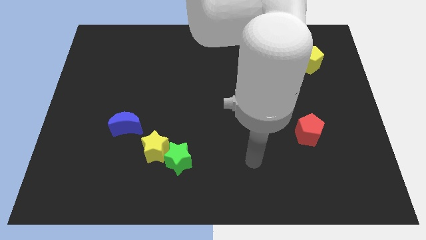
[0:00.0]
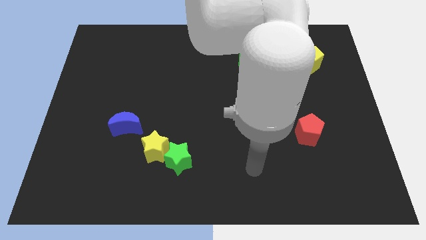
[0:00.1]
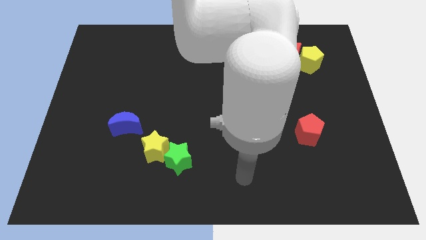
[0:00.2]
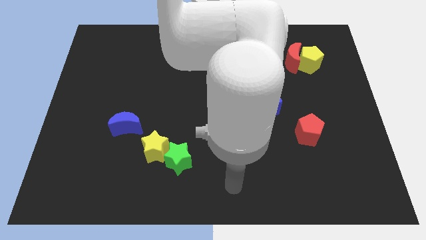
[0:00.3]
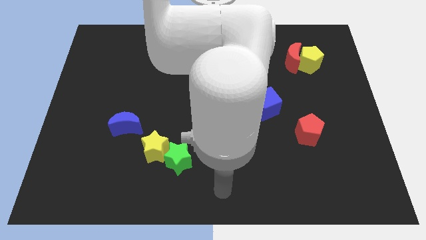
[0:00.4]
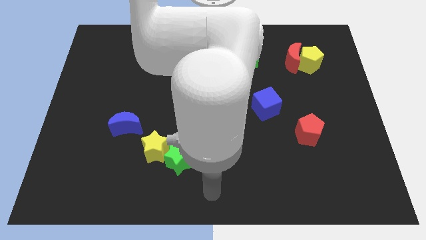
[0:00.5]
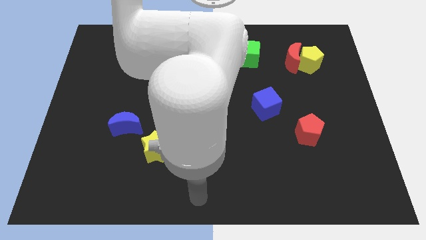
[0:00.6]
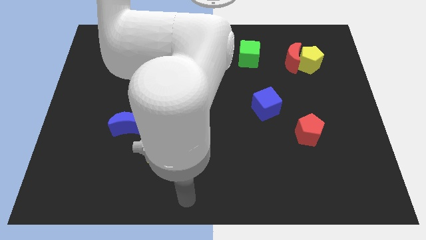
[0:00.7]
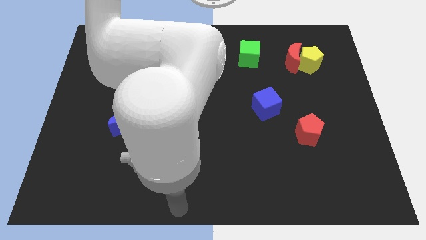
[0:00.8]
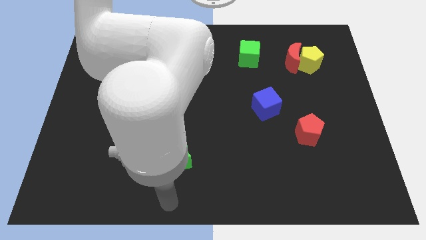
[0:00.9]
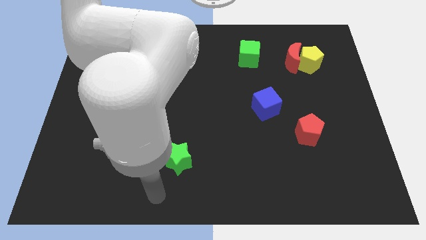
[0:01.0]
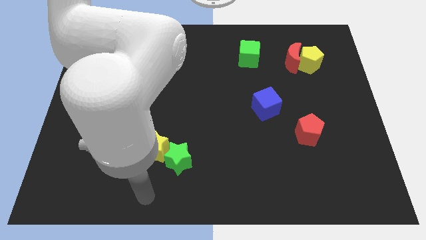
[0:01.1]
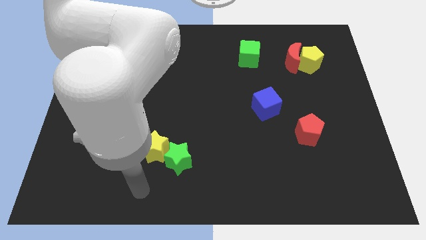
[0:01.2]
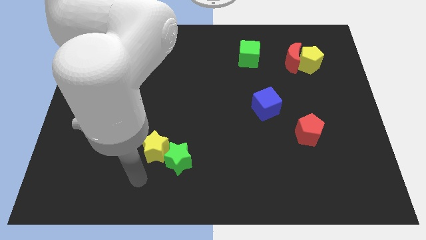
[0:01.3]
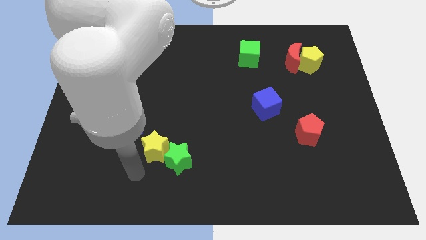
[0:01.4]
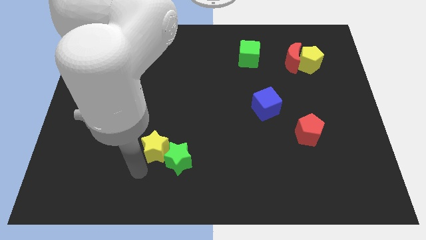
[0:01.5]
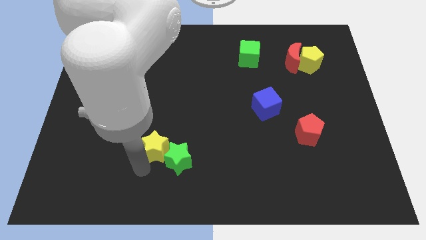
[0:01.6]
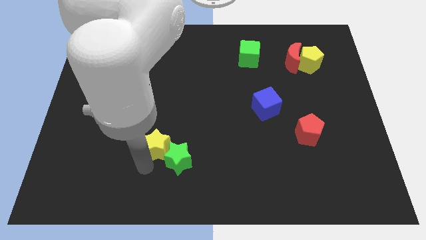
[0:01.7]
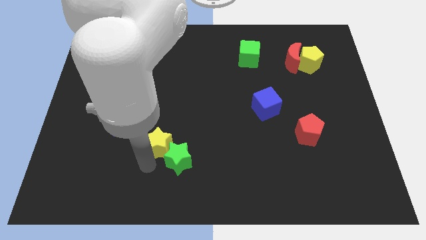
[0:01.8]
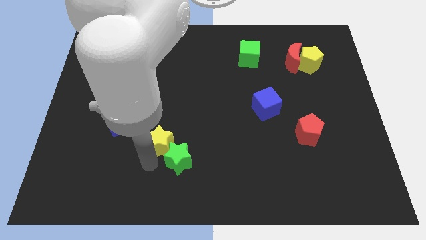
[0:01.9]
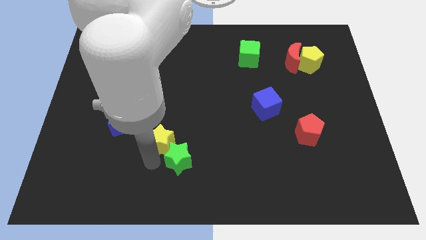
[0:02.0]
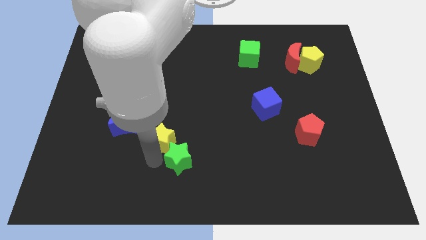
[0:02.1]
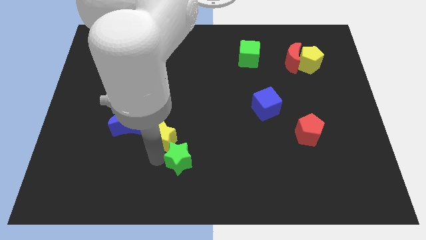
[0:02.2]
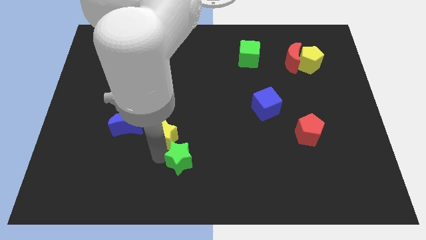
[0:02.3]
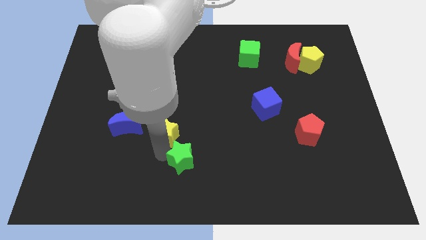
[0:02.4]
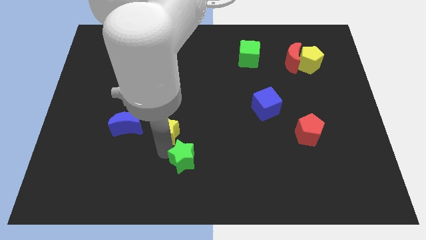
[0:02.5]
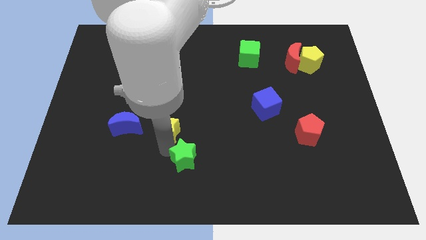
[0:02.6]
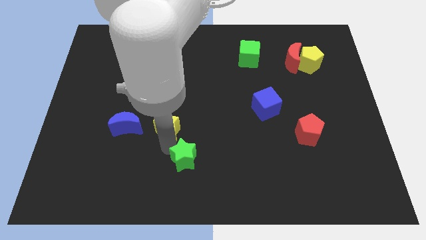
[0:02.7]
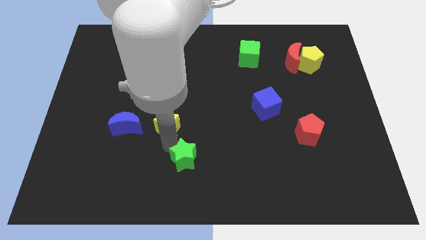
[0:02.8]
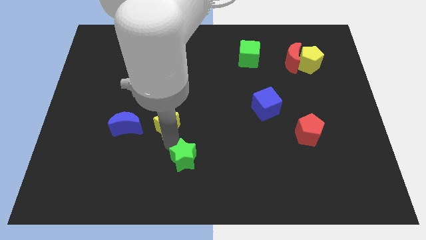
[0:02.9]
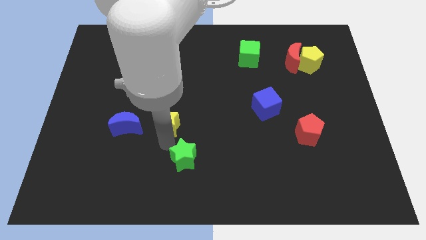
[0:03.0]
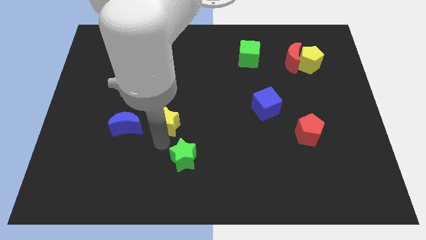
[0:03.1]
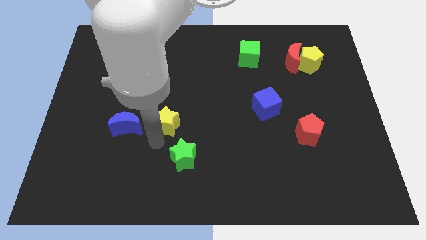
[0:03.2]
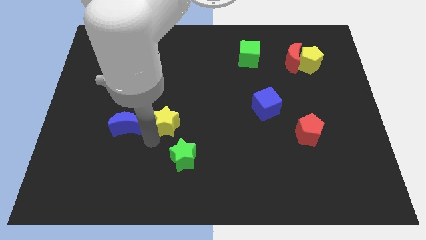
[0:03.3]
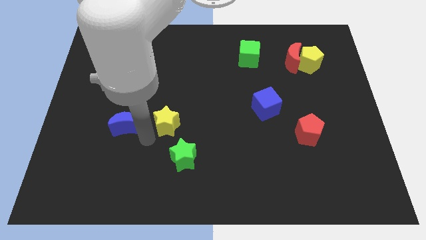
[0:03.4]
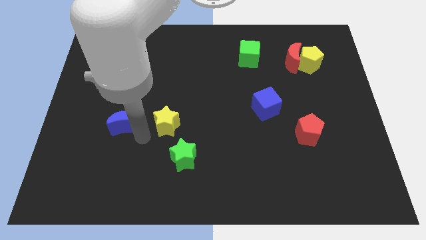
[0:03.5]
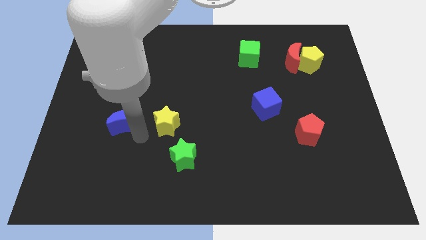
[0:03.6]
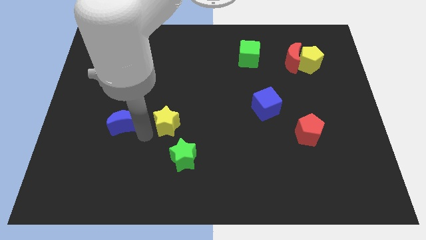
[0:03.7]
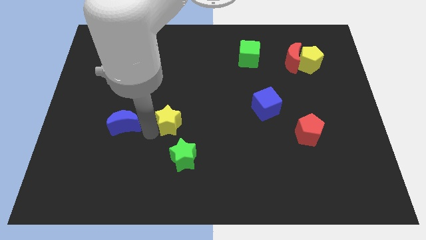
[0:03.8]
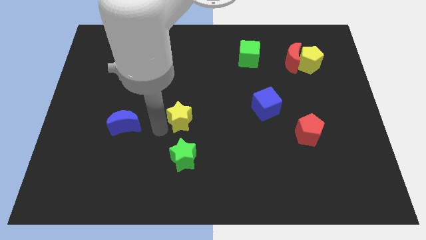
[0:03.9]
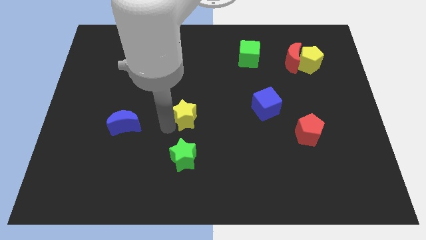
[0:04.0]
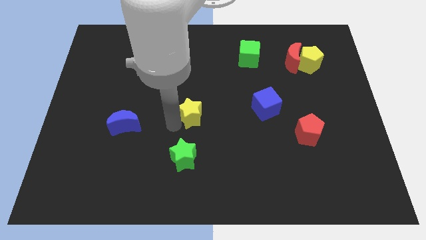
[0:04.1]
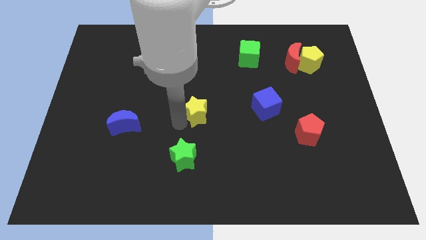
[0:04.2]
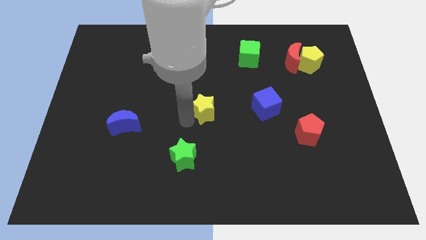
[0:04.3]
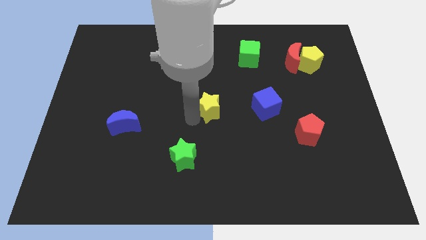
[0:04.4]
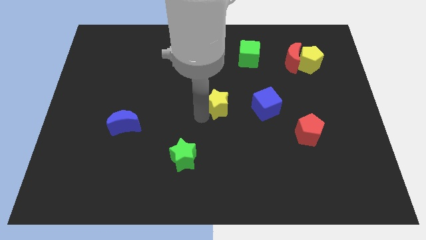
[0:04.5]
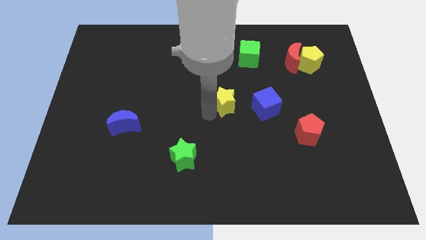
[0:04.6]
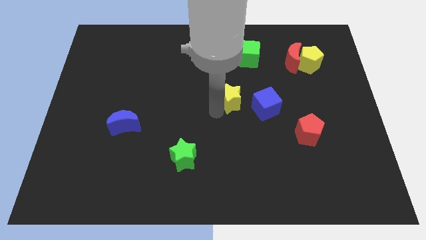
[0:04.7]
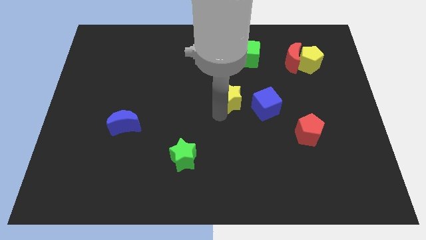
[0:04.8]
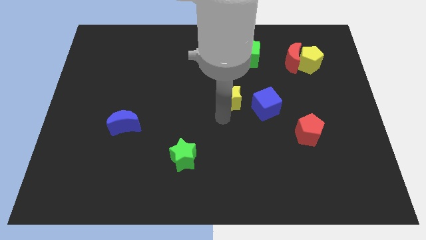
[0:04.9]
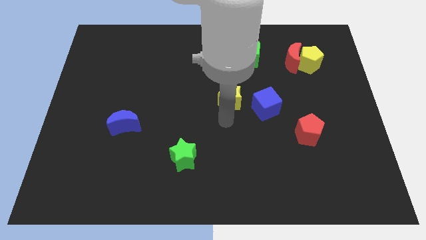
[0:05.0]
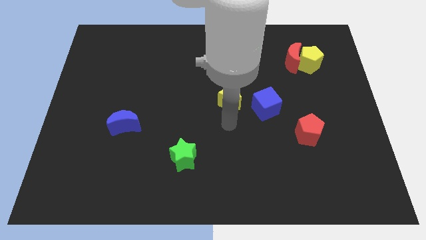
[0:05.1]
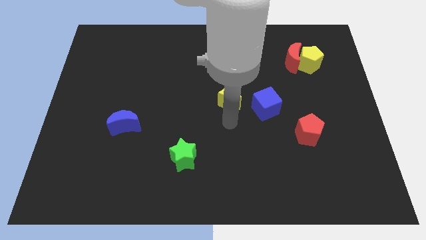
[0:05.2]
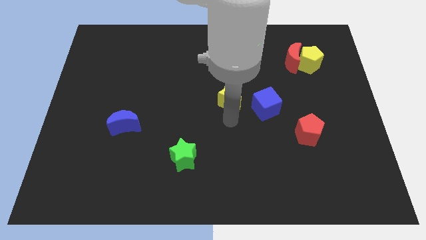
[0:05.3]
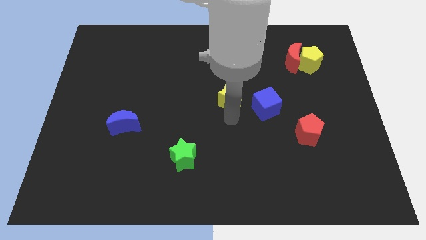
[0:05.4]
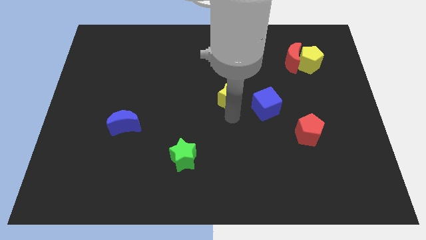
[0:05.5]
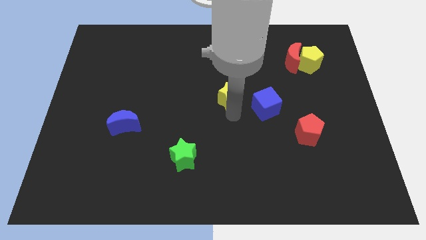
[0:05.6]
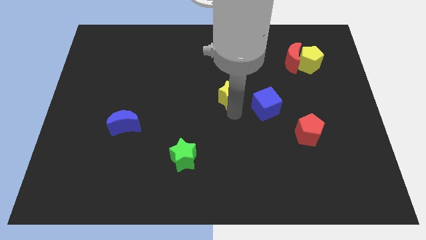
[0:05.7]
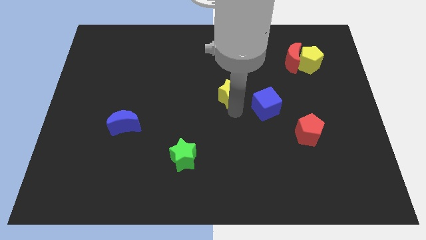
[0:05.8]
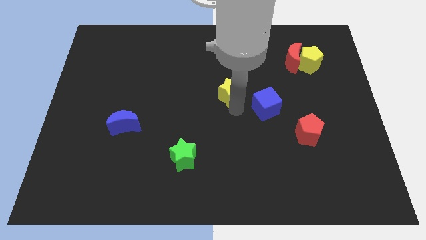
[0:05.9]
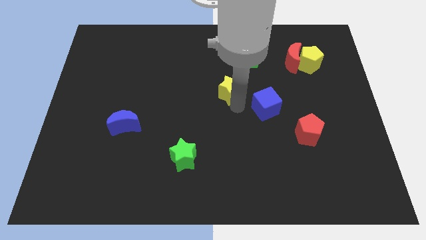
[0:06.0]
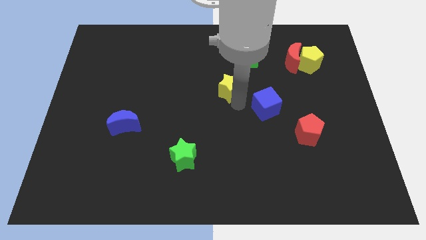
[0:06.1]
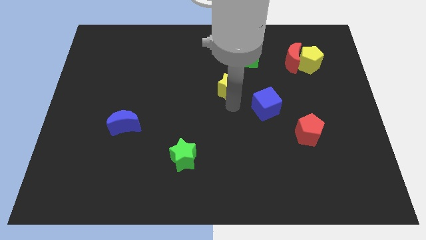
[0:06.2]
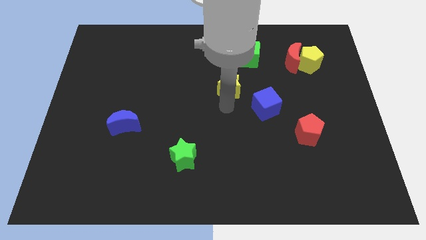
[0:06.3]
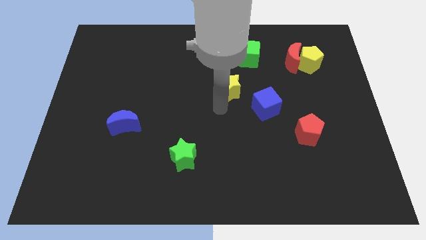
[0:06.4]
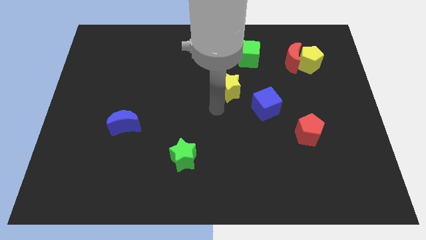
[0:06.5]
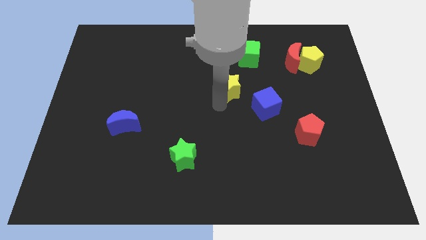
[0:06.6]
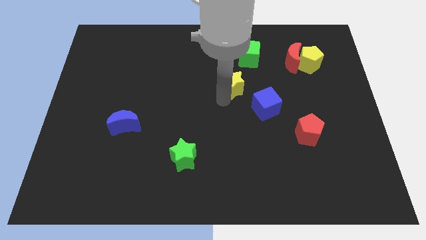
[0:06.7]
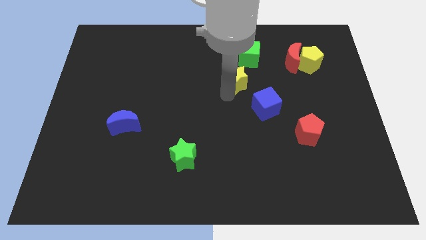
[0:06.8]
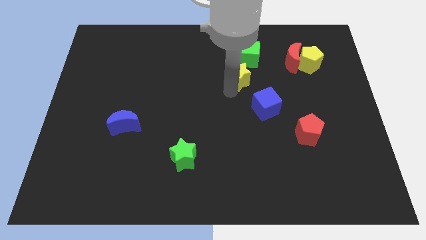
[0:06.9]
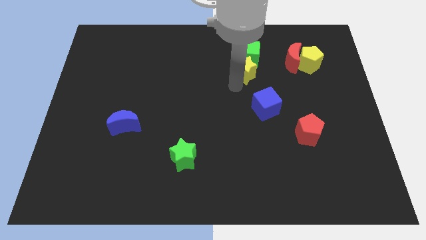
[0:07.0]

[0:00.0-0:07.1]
move the yellow star close to the green cube
